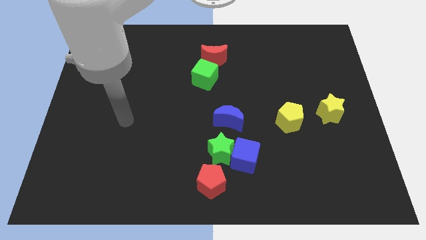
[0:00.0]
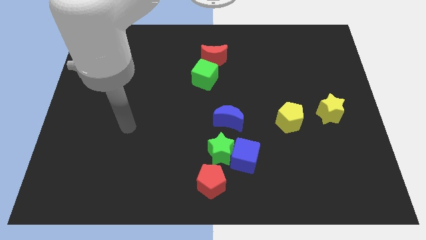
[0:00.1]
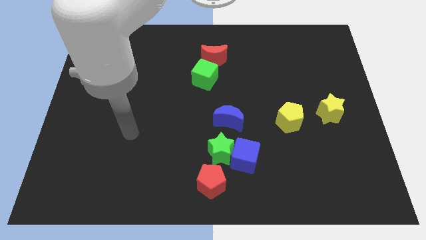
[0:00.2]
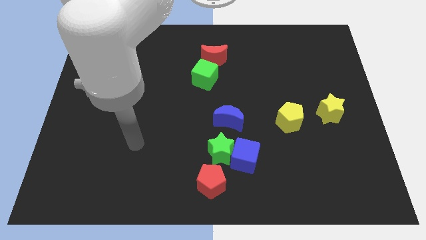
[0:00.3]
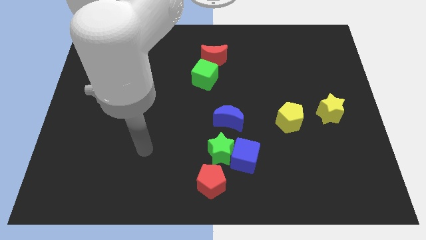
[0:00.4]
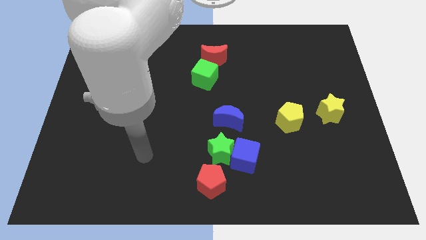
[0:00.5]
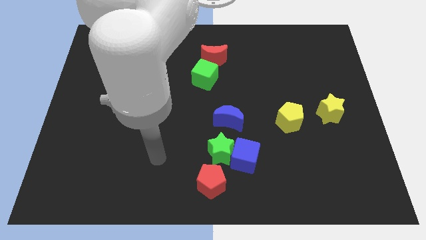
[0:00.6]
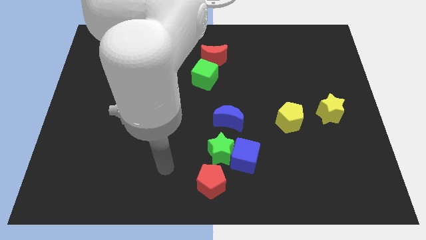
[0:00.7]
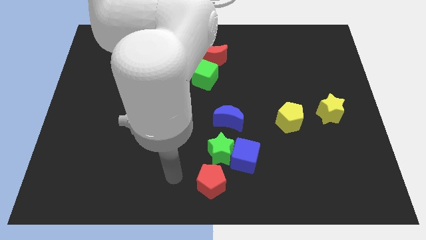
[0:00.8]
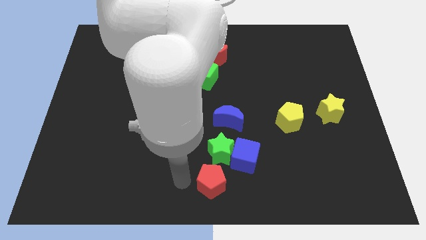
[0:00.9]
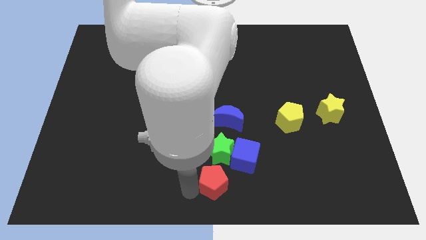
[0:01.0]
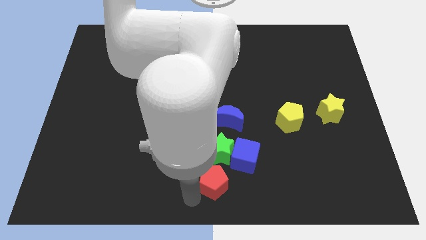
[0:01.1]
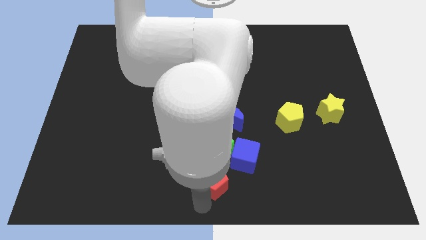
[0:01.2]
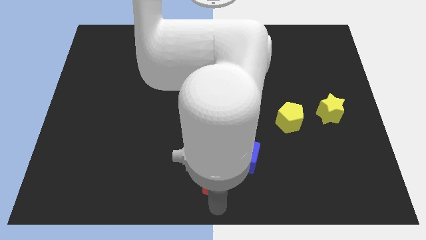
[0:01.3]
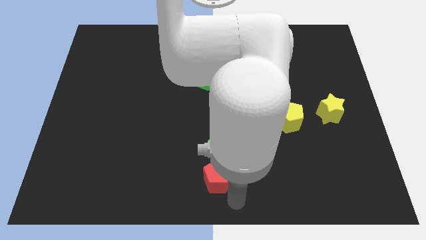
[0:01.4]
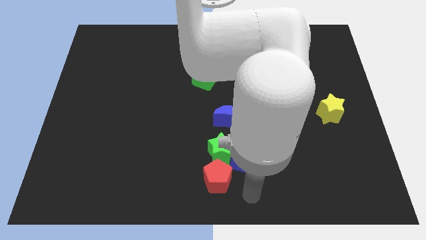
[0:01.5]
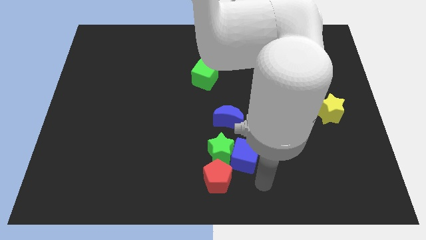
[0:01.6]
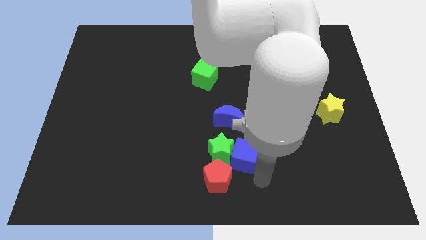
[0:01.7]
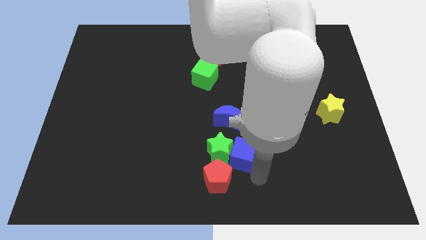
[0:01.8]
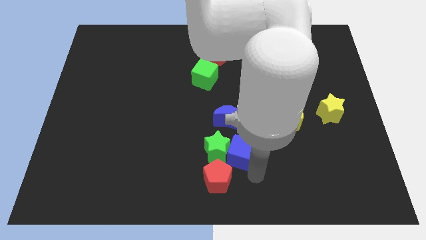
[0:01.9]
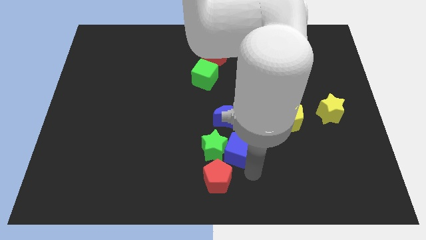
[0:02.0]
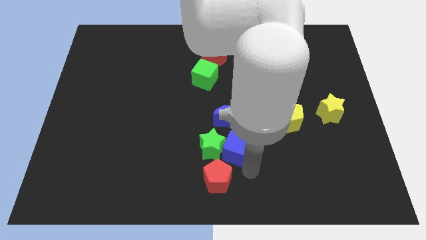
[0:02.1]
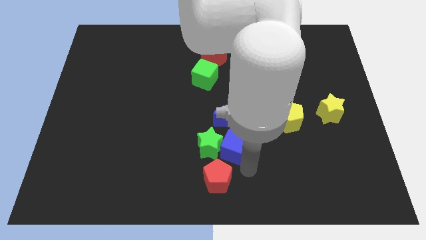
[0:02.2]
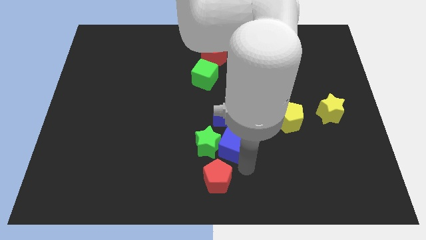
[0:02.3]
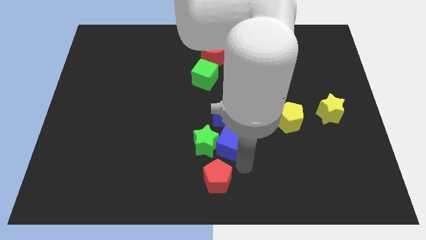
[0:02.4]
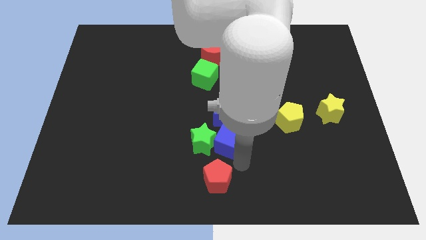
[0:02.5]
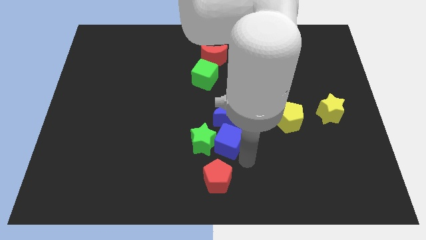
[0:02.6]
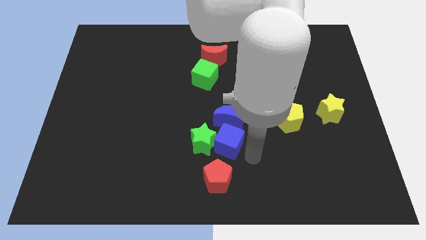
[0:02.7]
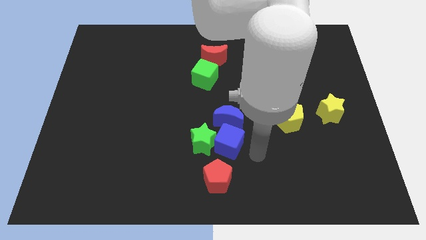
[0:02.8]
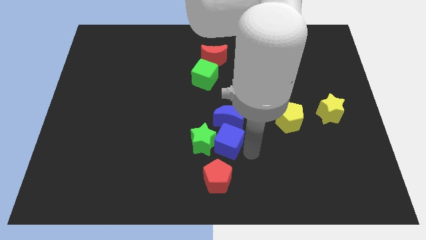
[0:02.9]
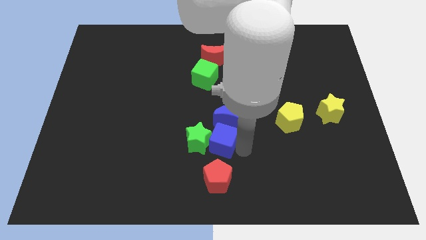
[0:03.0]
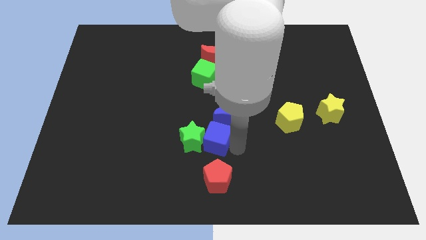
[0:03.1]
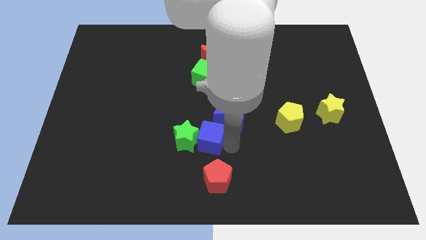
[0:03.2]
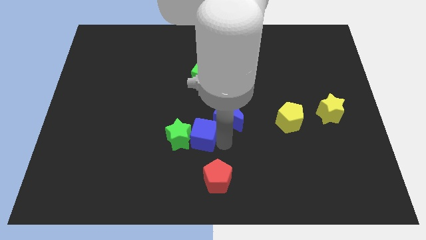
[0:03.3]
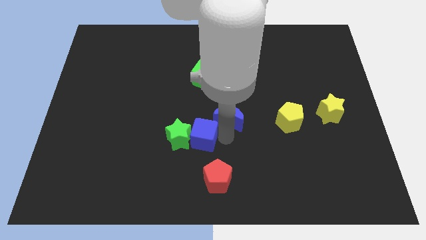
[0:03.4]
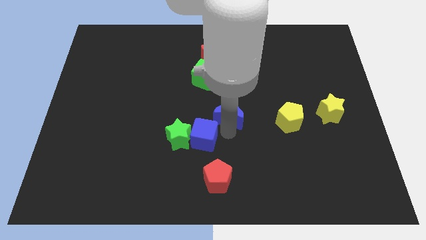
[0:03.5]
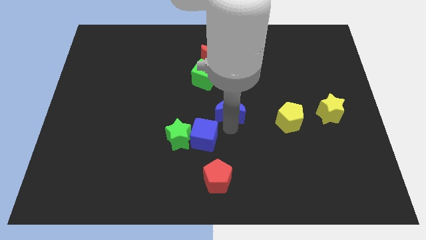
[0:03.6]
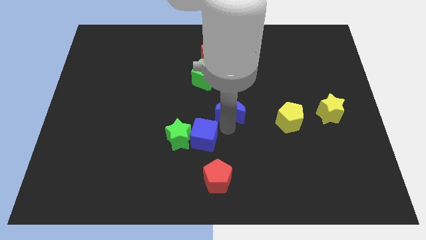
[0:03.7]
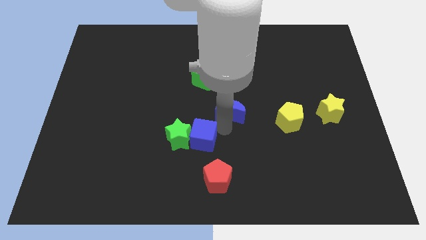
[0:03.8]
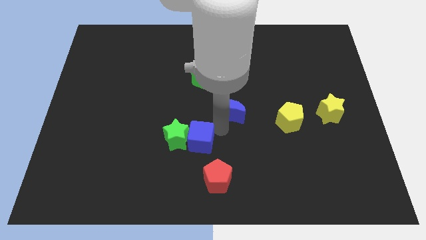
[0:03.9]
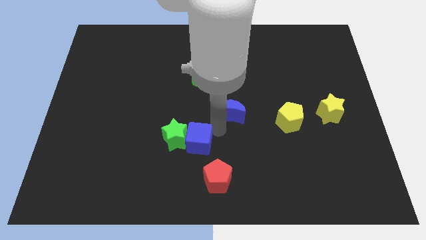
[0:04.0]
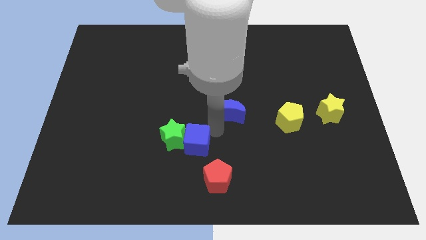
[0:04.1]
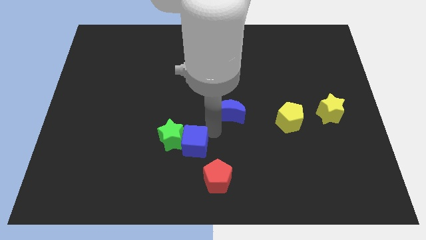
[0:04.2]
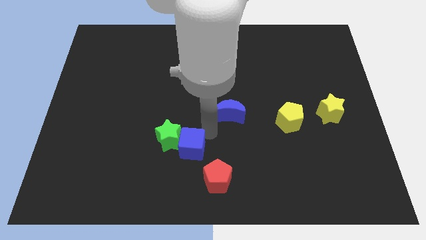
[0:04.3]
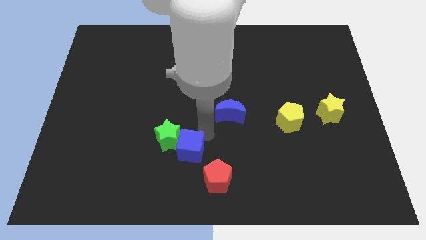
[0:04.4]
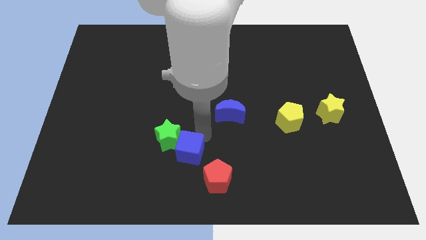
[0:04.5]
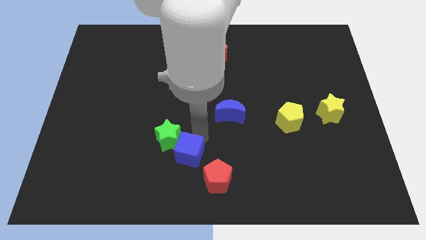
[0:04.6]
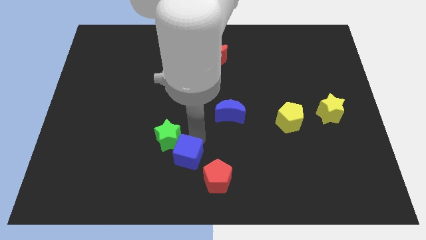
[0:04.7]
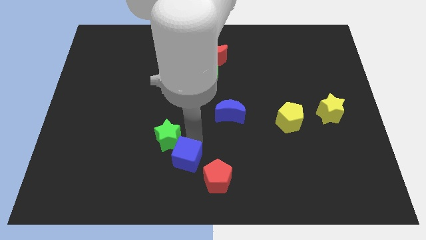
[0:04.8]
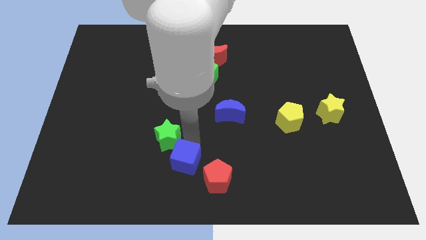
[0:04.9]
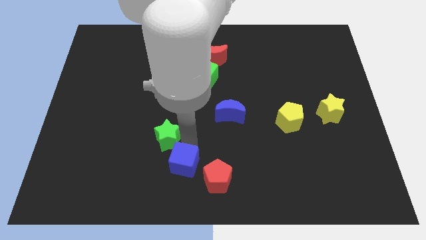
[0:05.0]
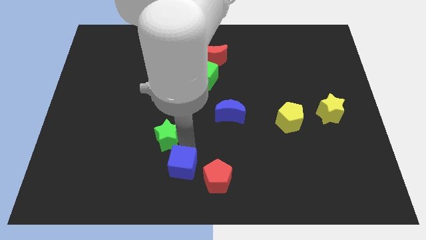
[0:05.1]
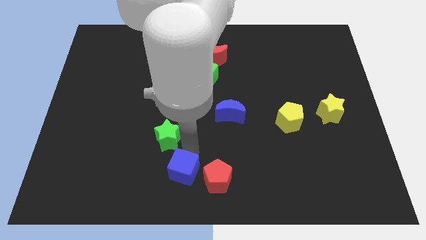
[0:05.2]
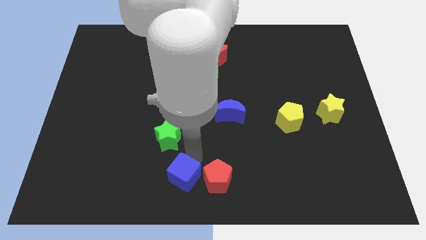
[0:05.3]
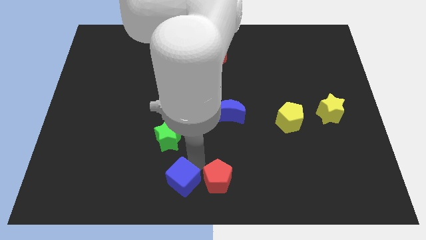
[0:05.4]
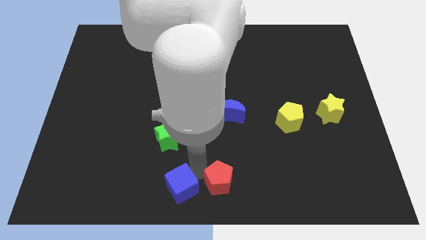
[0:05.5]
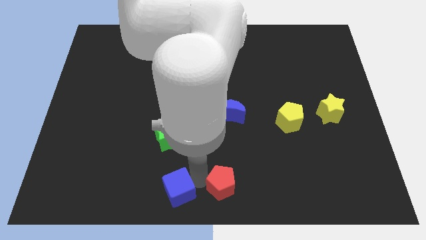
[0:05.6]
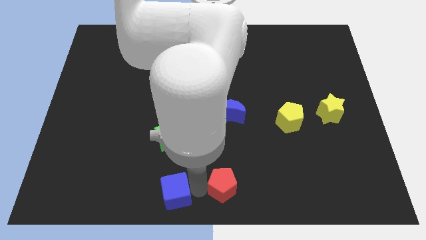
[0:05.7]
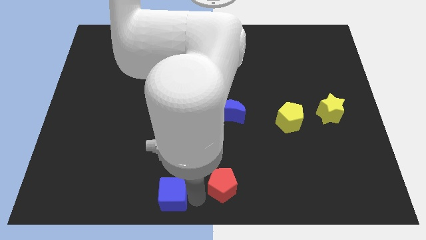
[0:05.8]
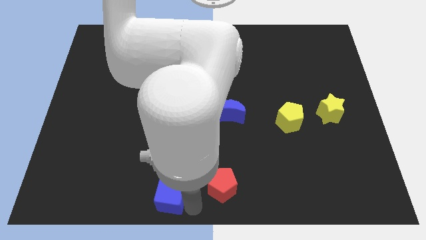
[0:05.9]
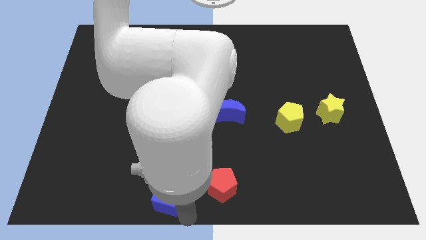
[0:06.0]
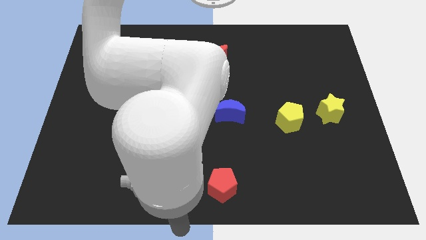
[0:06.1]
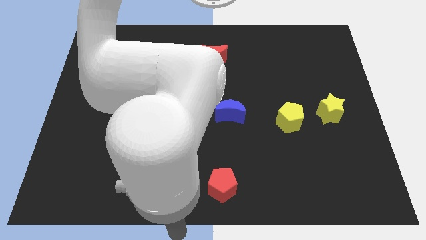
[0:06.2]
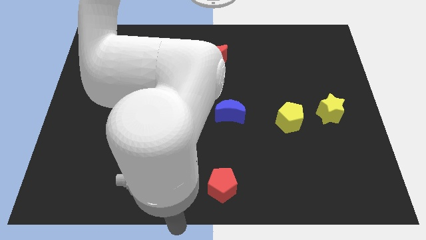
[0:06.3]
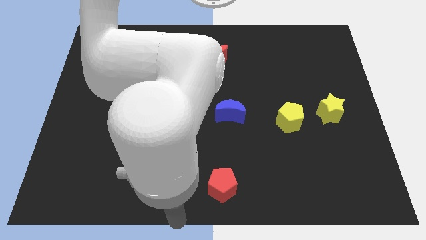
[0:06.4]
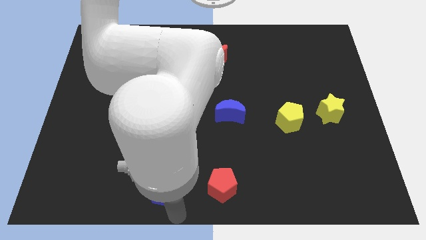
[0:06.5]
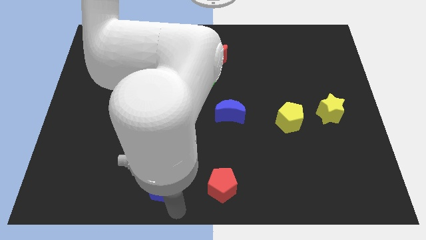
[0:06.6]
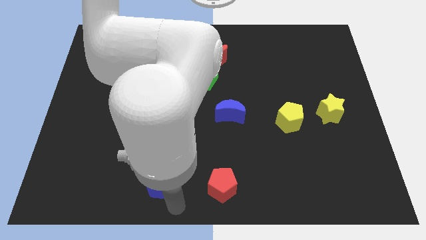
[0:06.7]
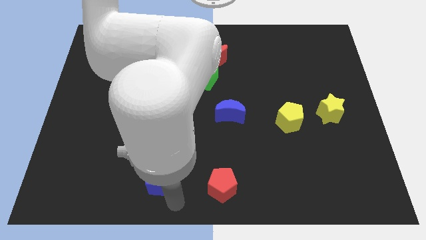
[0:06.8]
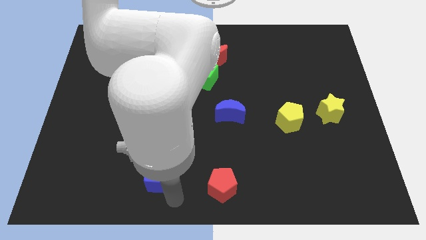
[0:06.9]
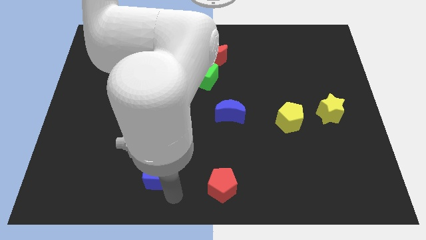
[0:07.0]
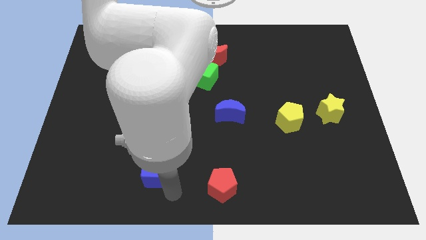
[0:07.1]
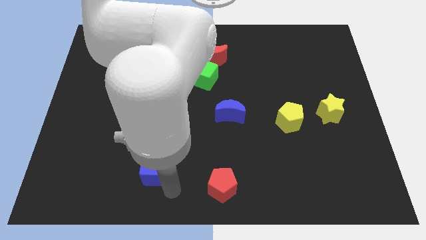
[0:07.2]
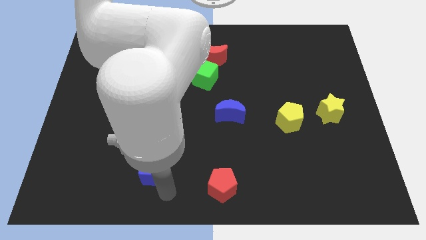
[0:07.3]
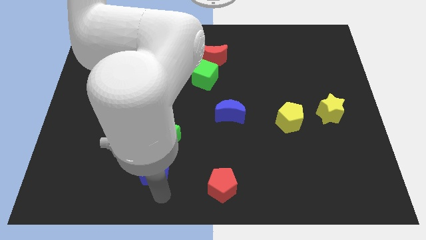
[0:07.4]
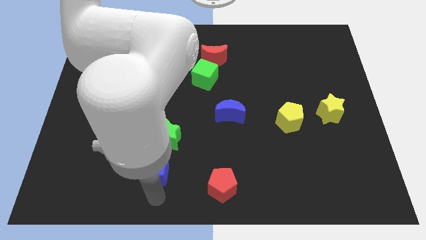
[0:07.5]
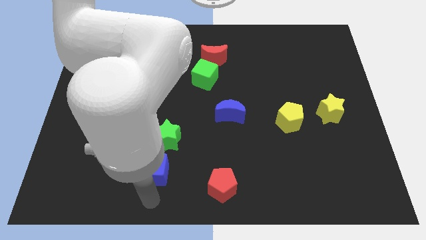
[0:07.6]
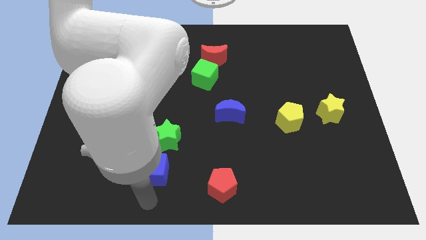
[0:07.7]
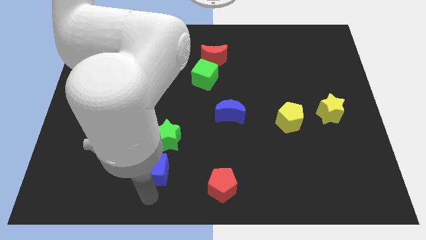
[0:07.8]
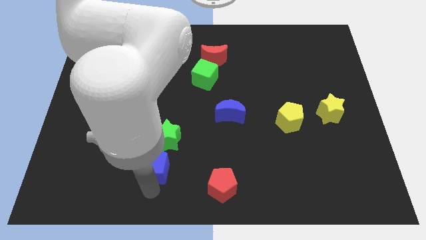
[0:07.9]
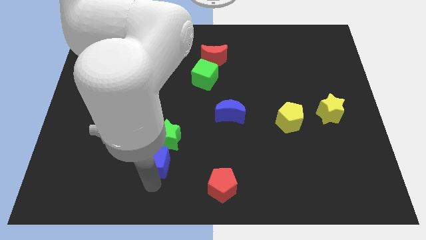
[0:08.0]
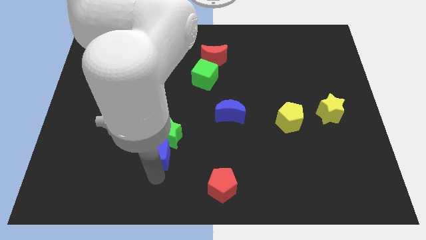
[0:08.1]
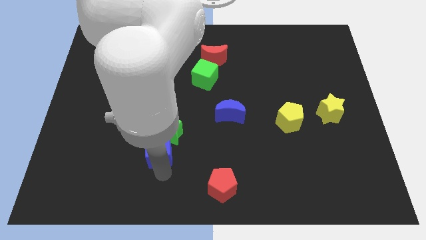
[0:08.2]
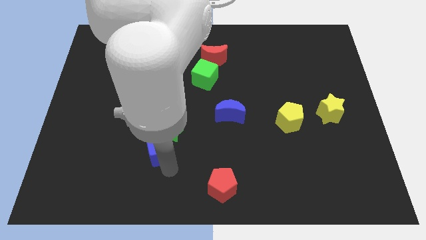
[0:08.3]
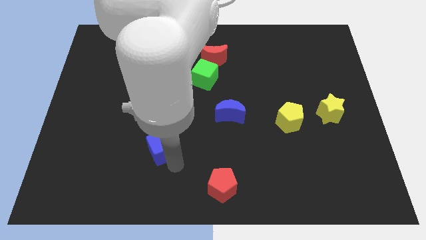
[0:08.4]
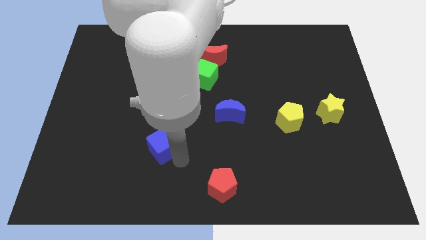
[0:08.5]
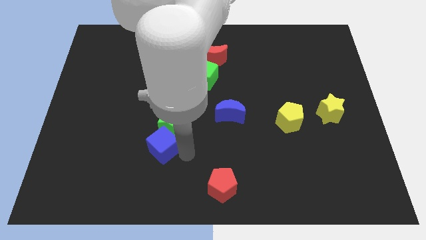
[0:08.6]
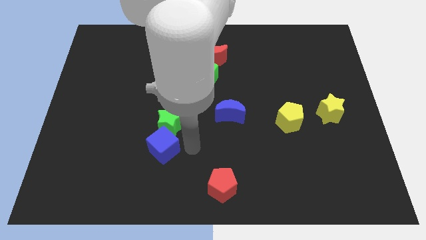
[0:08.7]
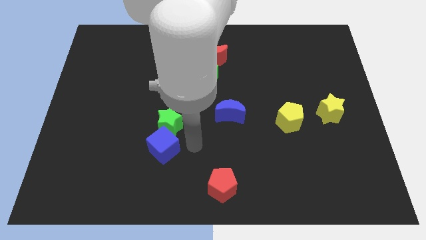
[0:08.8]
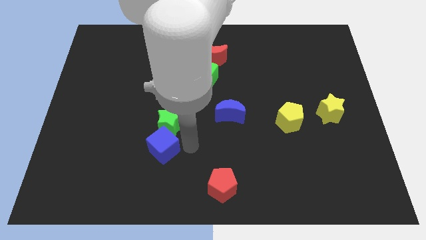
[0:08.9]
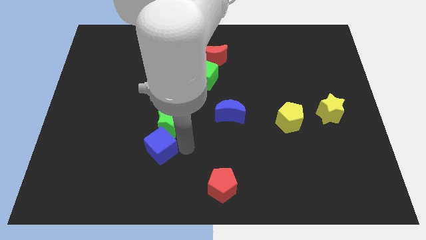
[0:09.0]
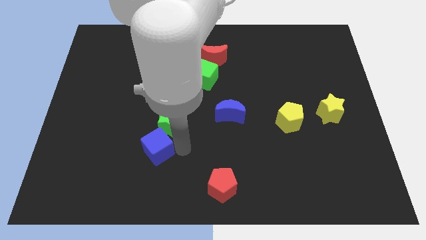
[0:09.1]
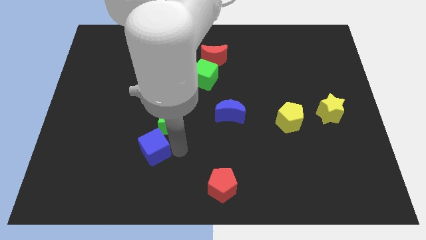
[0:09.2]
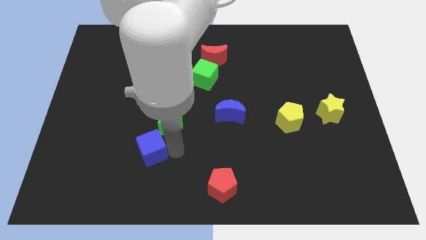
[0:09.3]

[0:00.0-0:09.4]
slide the blue cube left
